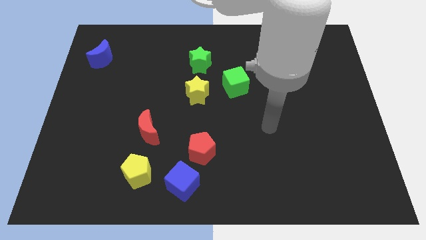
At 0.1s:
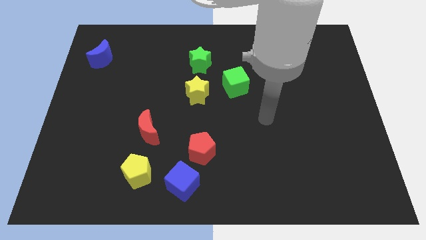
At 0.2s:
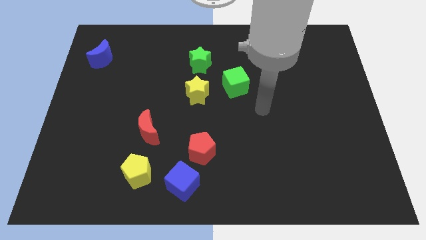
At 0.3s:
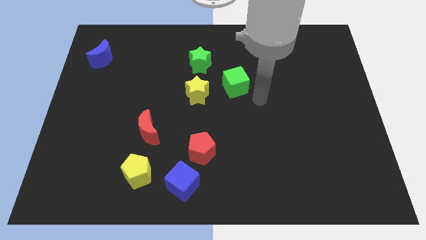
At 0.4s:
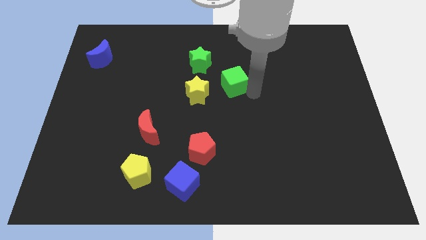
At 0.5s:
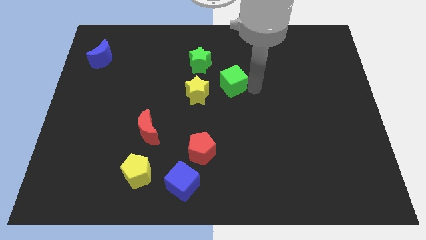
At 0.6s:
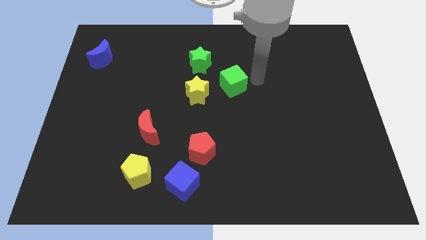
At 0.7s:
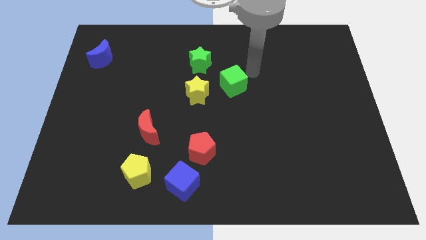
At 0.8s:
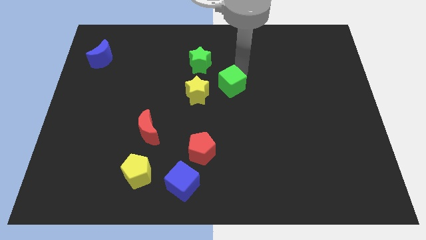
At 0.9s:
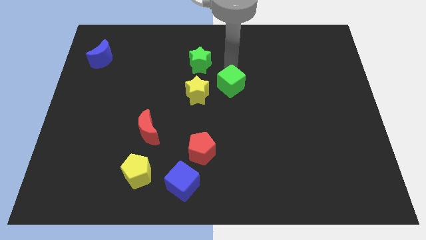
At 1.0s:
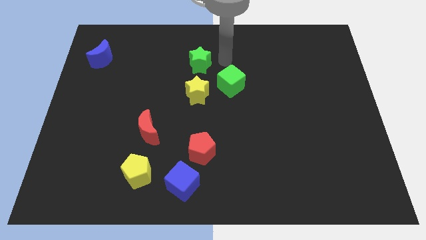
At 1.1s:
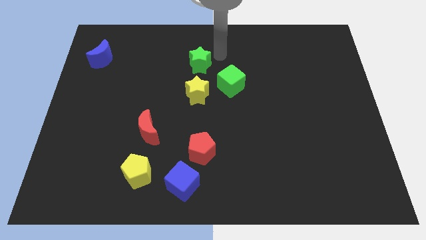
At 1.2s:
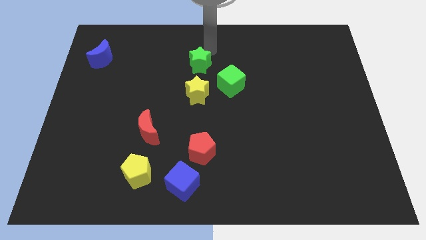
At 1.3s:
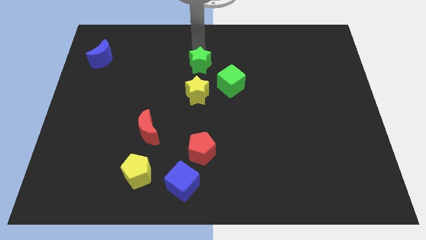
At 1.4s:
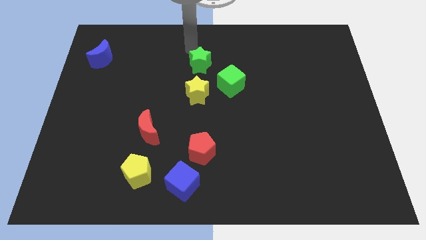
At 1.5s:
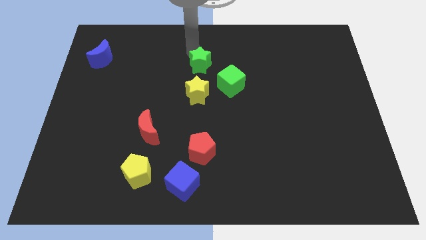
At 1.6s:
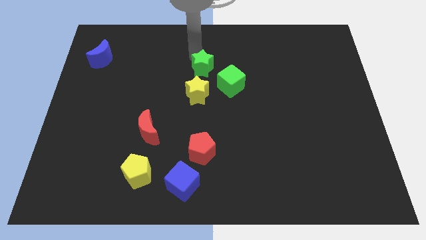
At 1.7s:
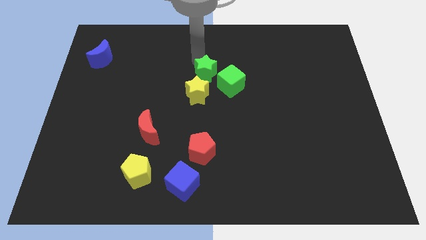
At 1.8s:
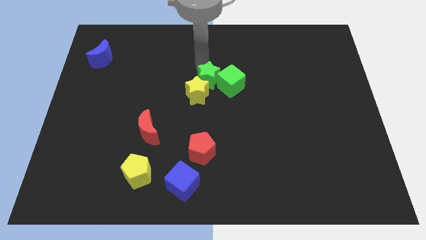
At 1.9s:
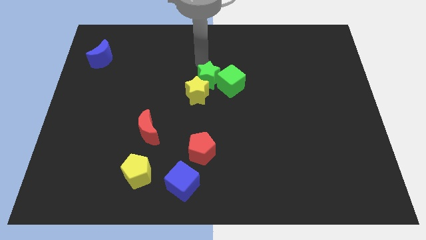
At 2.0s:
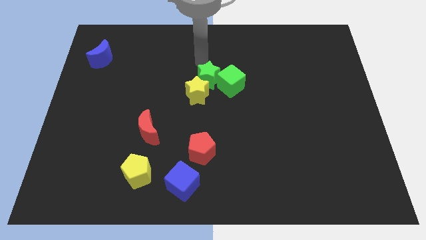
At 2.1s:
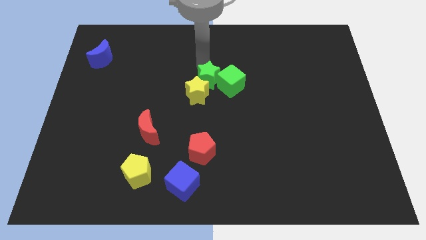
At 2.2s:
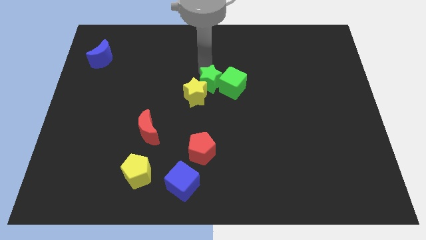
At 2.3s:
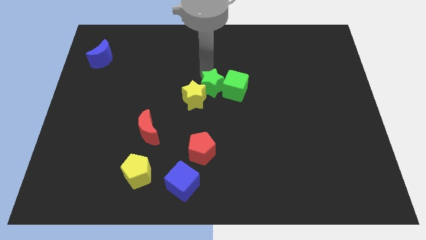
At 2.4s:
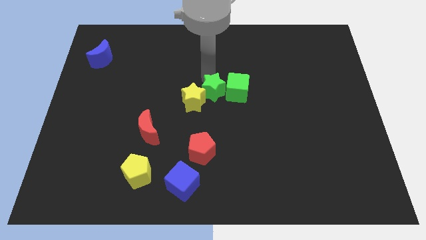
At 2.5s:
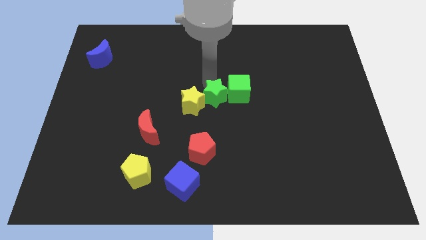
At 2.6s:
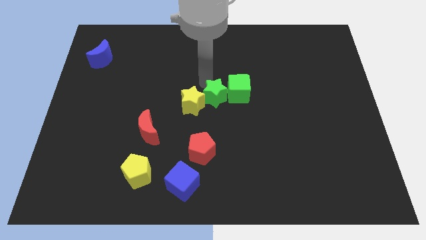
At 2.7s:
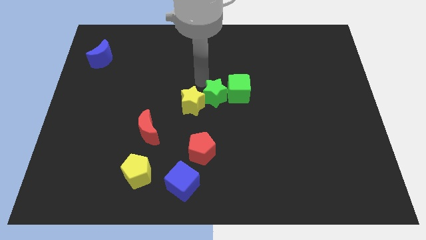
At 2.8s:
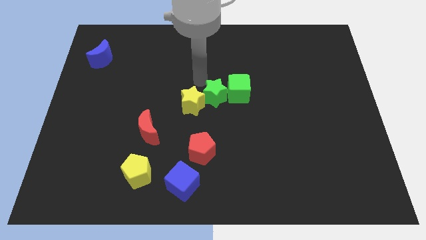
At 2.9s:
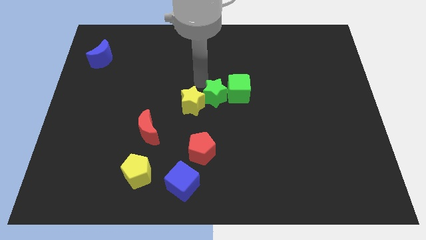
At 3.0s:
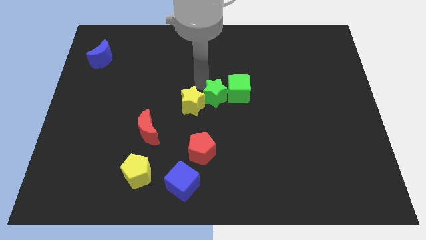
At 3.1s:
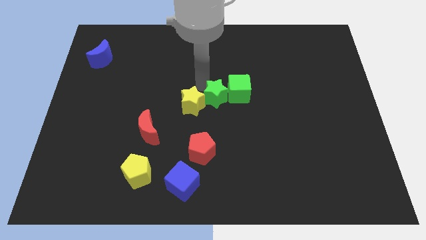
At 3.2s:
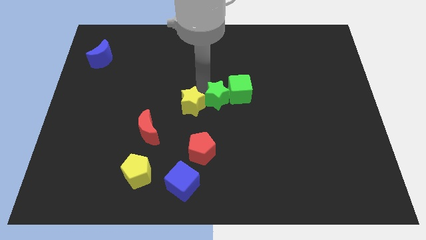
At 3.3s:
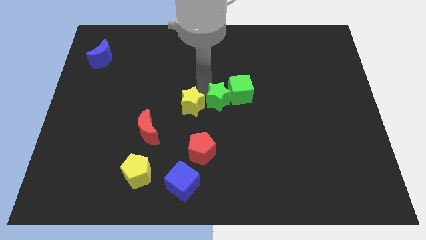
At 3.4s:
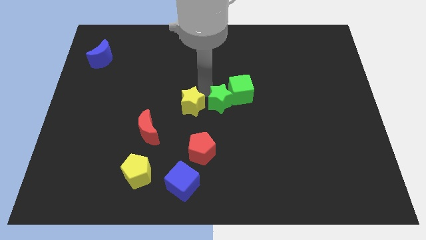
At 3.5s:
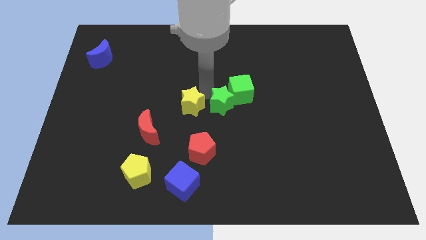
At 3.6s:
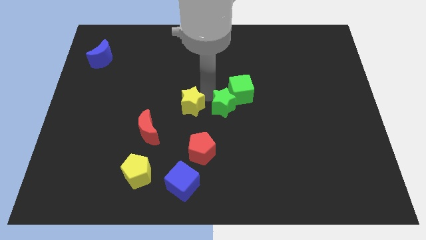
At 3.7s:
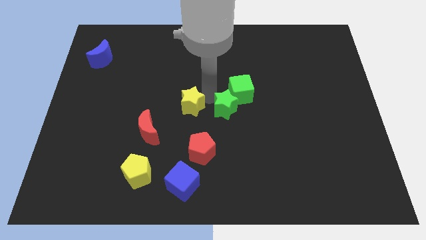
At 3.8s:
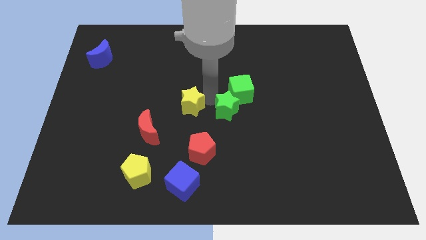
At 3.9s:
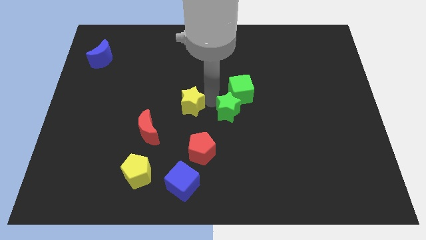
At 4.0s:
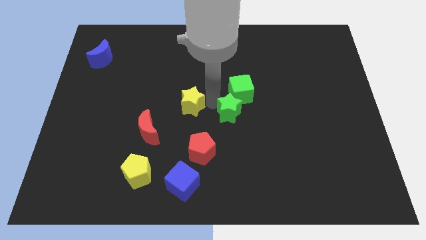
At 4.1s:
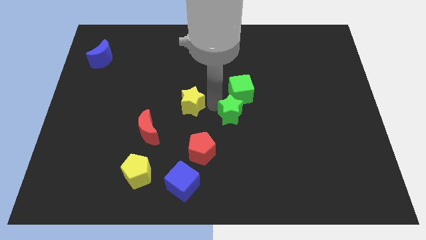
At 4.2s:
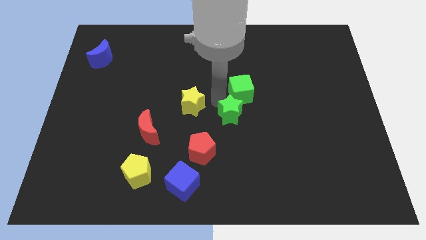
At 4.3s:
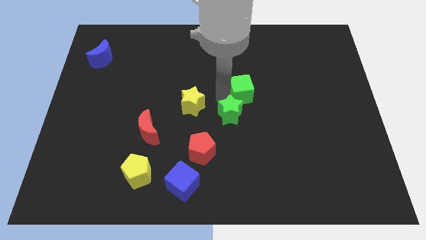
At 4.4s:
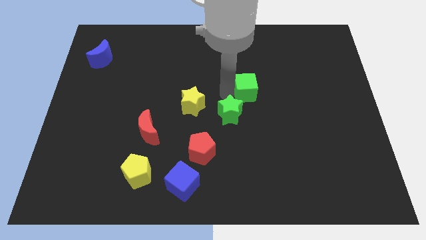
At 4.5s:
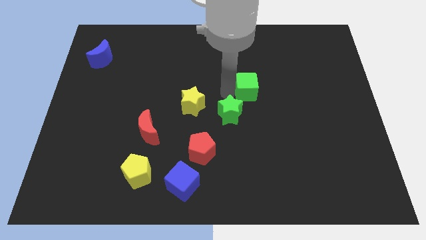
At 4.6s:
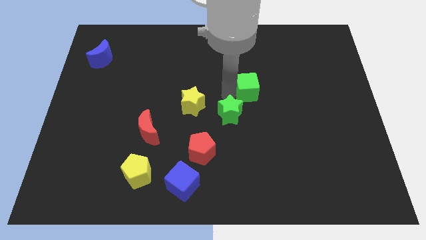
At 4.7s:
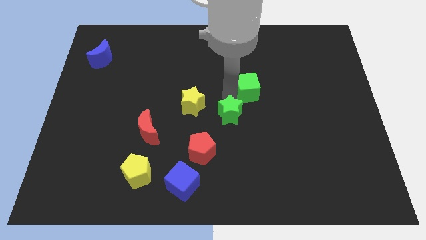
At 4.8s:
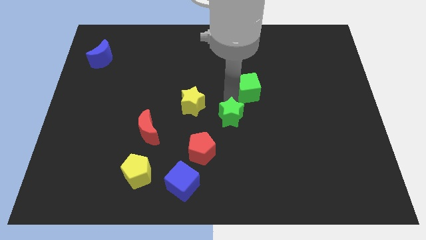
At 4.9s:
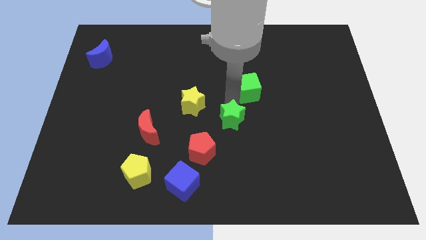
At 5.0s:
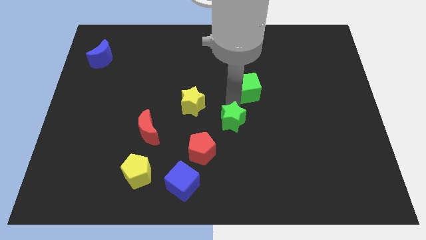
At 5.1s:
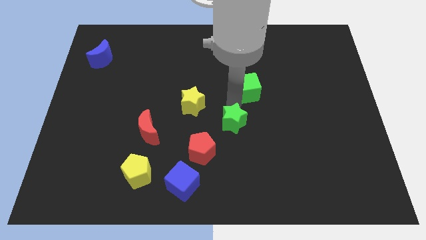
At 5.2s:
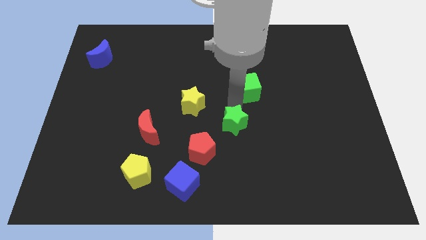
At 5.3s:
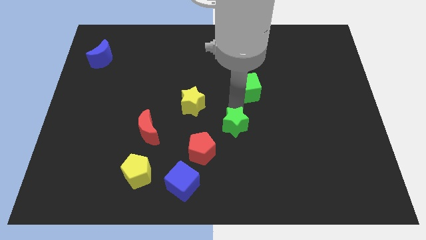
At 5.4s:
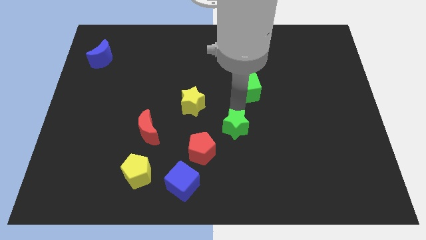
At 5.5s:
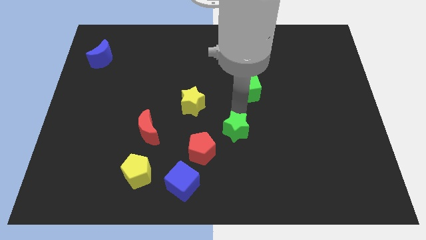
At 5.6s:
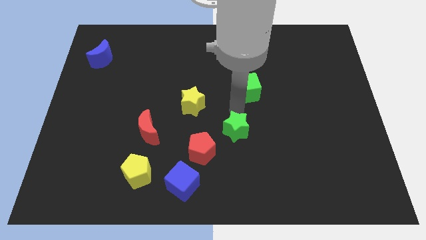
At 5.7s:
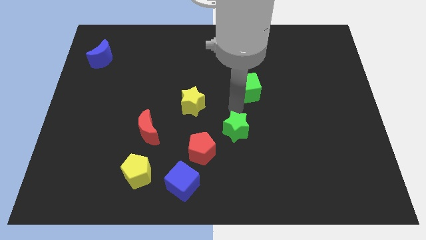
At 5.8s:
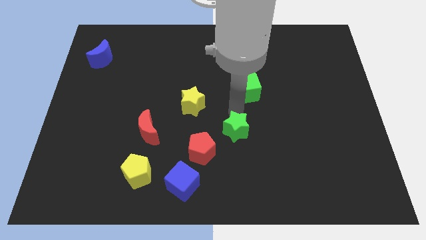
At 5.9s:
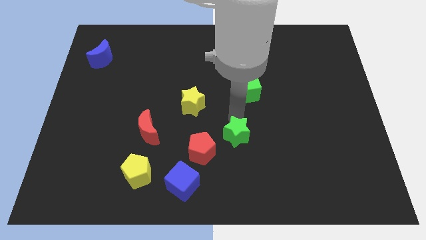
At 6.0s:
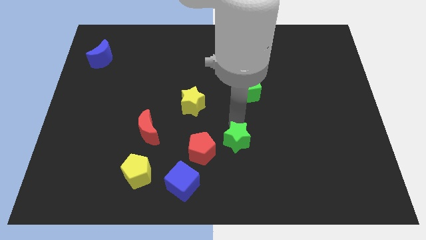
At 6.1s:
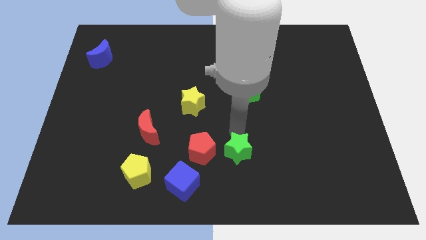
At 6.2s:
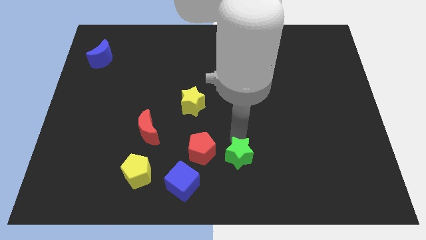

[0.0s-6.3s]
push the green star to the bottom side

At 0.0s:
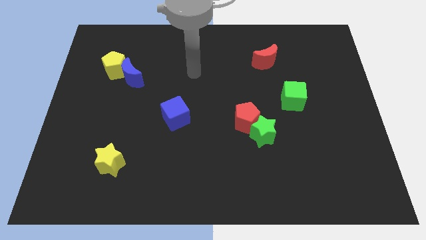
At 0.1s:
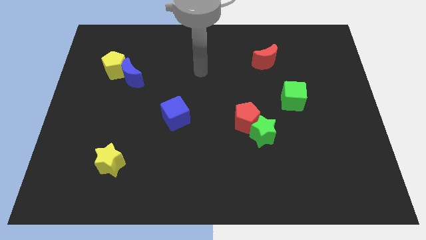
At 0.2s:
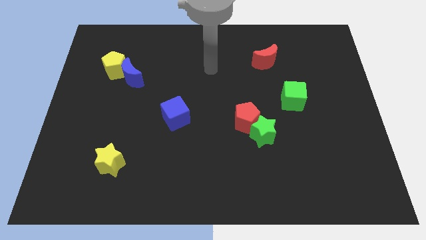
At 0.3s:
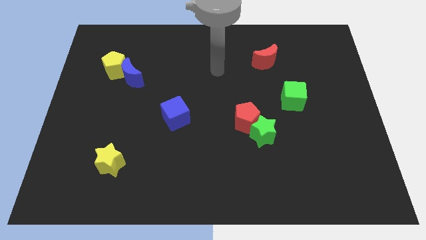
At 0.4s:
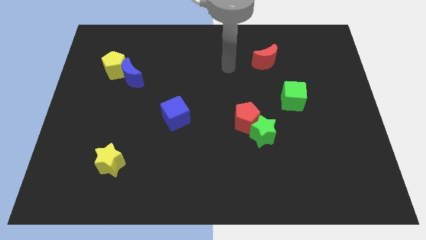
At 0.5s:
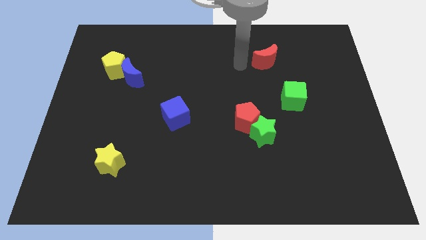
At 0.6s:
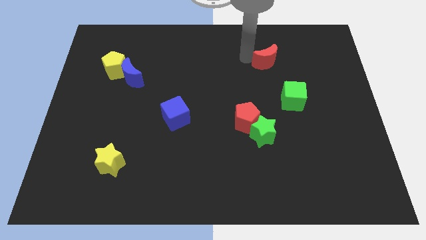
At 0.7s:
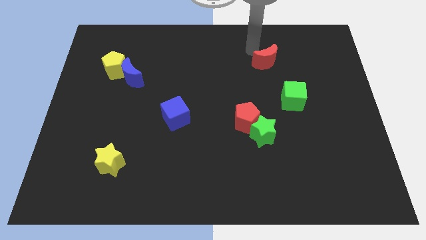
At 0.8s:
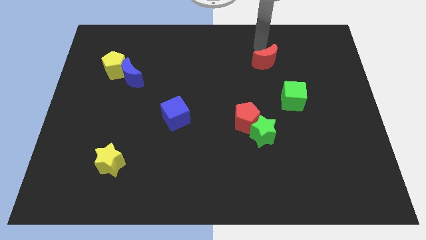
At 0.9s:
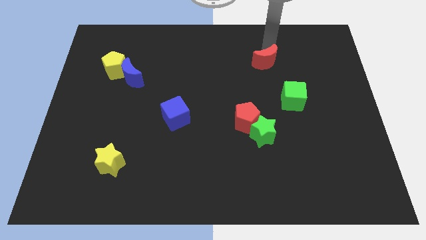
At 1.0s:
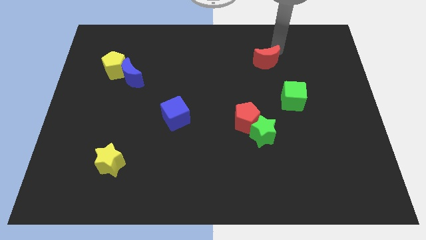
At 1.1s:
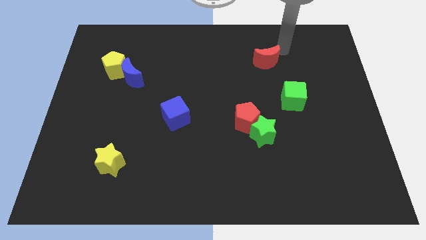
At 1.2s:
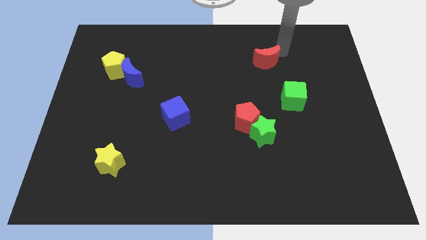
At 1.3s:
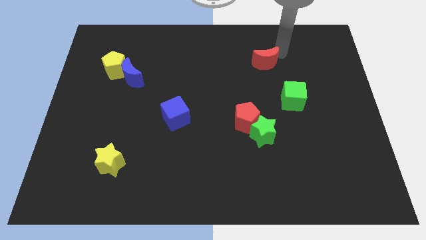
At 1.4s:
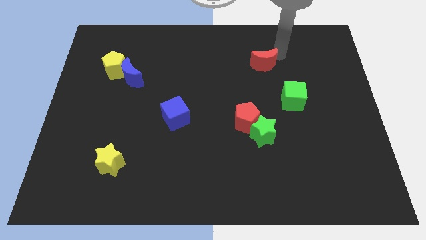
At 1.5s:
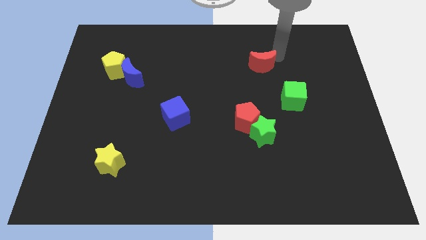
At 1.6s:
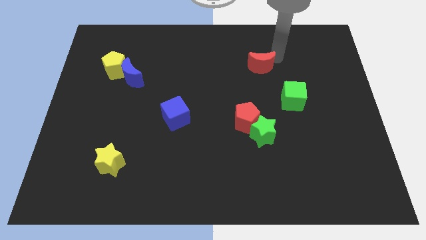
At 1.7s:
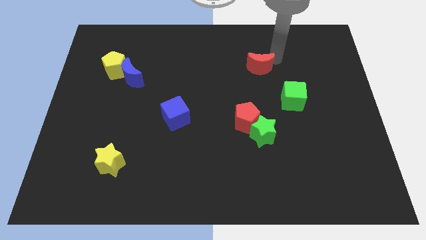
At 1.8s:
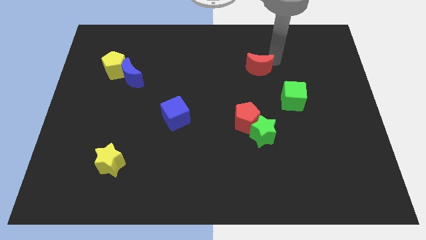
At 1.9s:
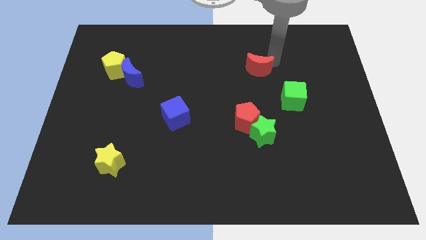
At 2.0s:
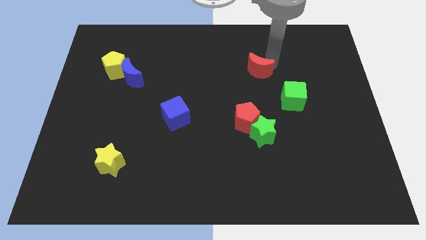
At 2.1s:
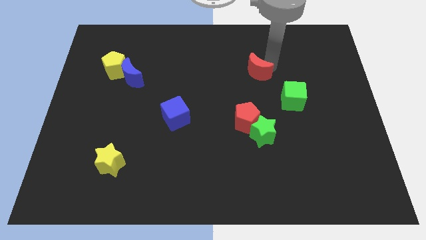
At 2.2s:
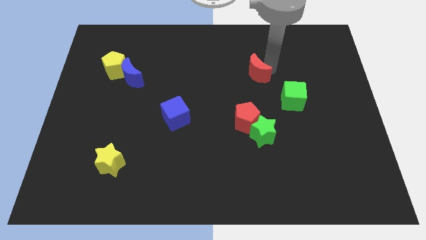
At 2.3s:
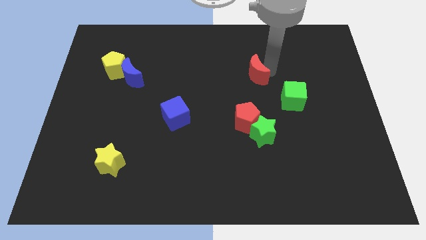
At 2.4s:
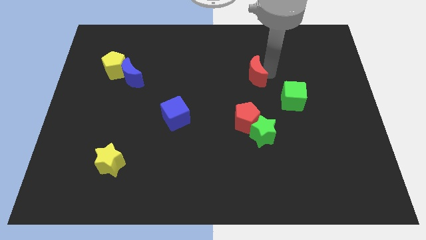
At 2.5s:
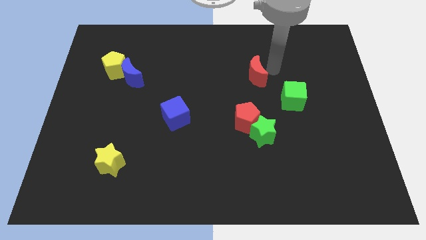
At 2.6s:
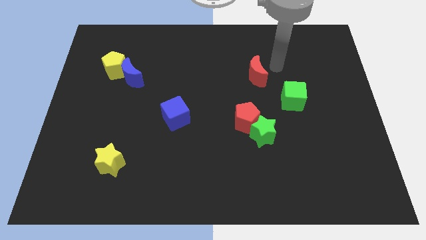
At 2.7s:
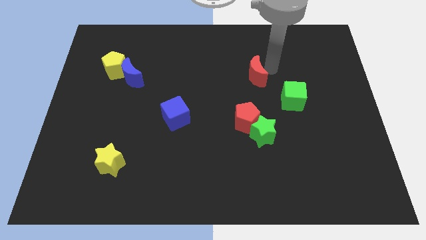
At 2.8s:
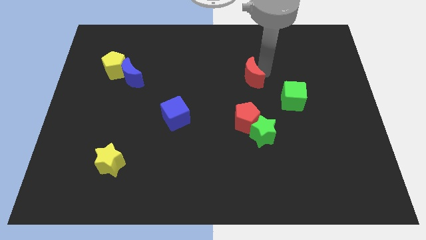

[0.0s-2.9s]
move the red moon to the middle of the board
